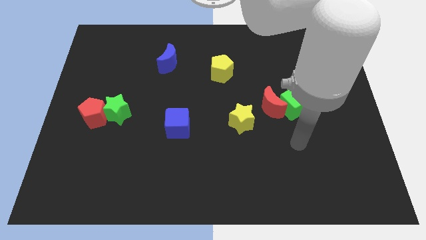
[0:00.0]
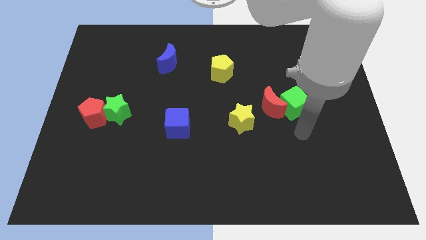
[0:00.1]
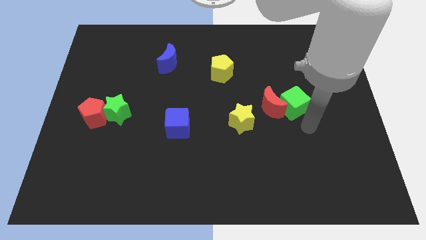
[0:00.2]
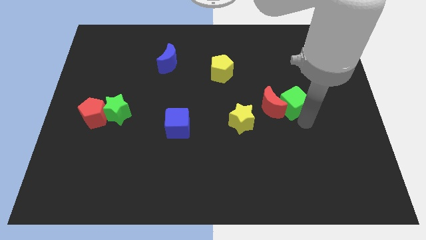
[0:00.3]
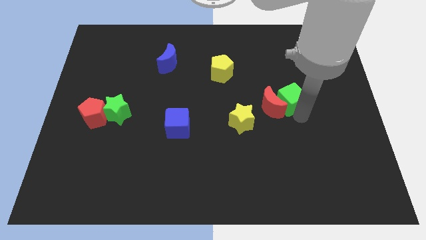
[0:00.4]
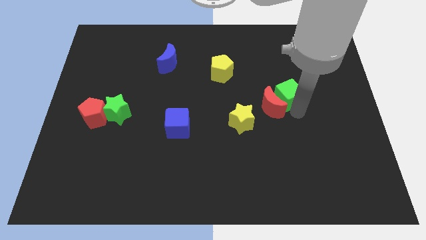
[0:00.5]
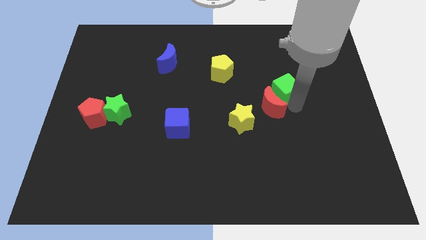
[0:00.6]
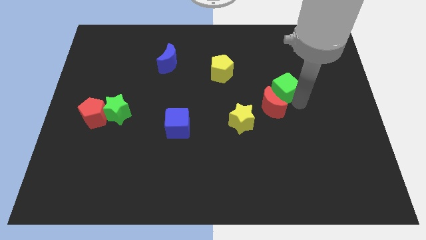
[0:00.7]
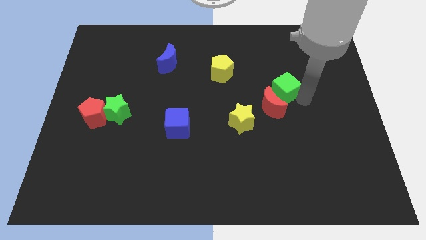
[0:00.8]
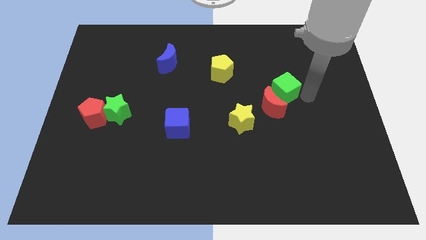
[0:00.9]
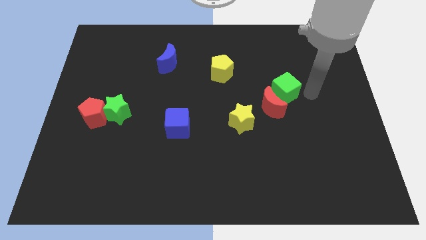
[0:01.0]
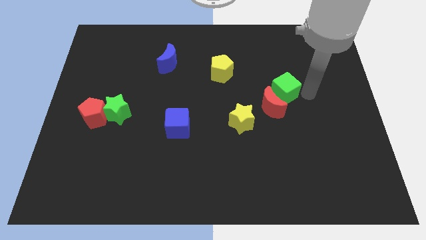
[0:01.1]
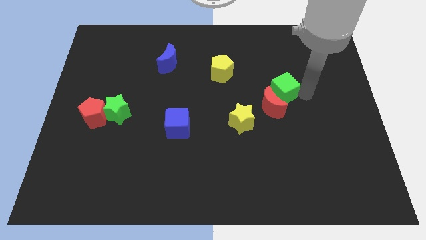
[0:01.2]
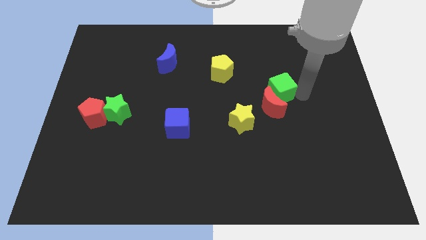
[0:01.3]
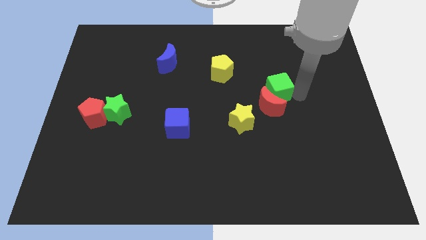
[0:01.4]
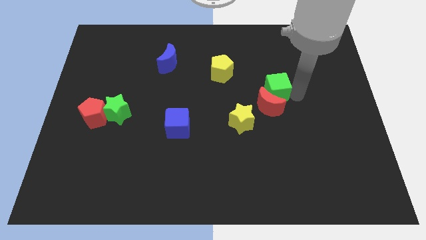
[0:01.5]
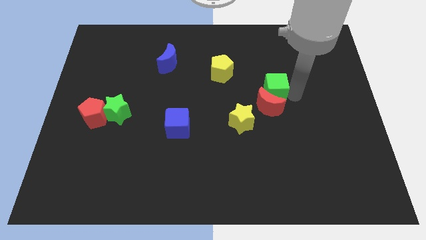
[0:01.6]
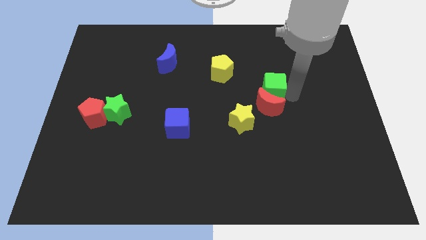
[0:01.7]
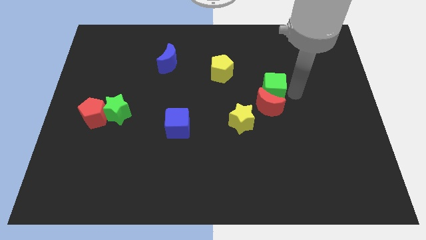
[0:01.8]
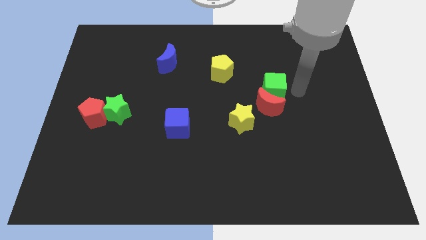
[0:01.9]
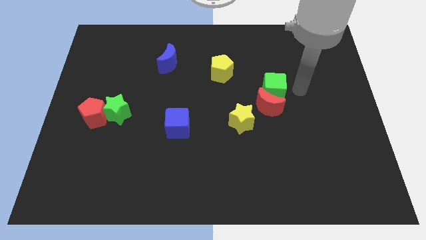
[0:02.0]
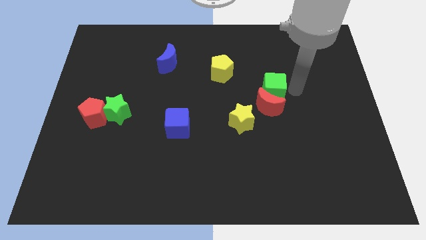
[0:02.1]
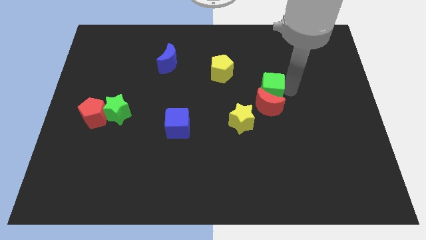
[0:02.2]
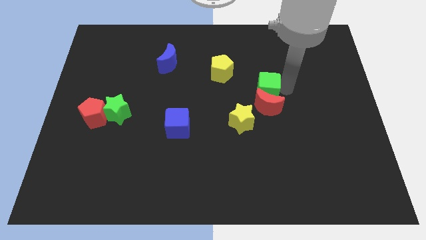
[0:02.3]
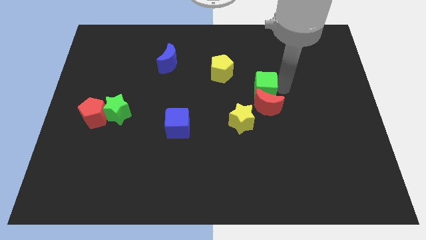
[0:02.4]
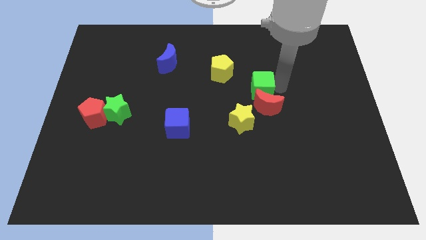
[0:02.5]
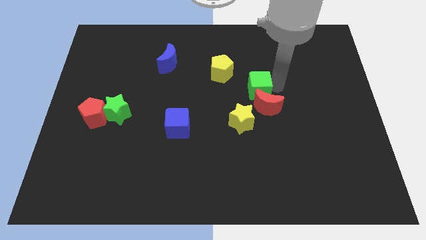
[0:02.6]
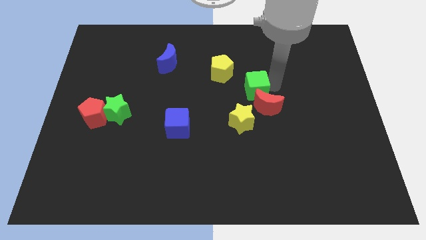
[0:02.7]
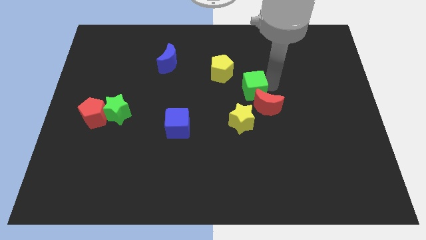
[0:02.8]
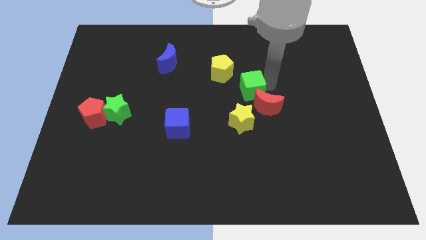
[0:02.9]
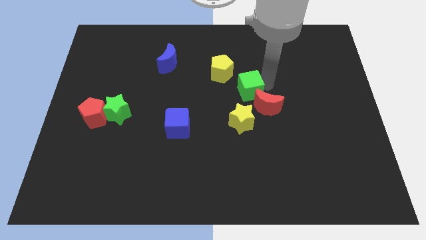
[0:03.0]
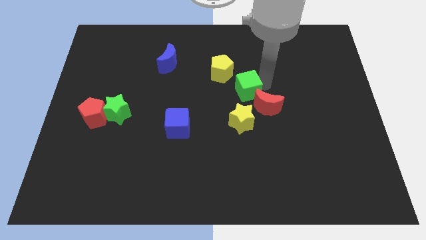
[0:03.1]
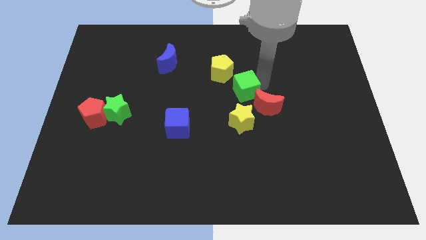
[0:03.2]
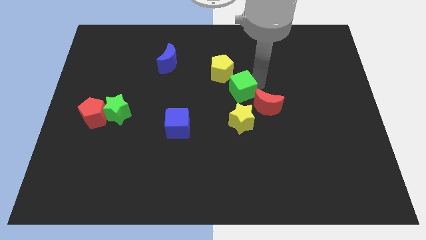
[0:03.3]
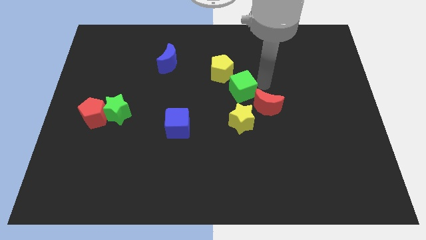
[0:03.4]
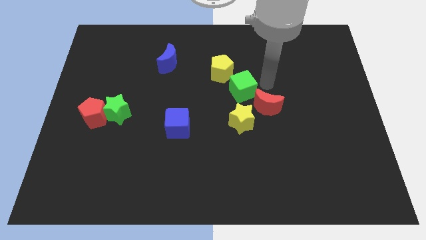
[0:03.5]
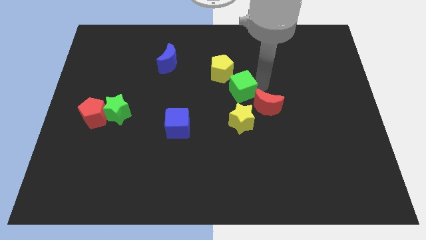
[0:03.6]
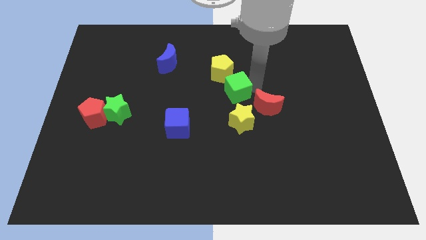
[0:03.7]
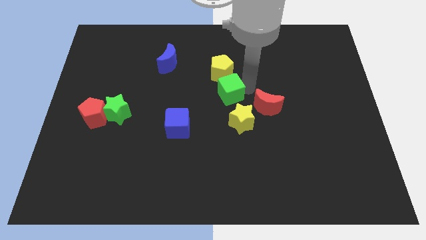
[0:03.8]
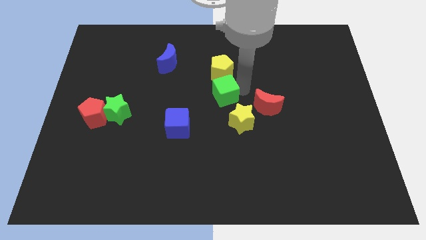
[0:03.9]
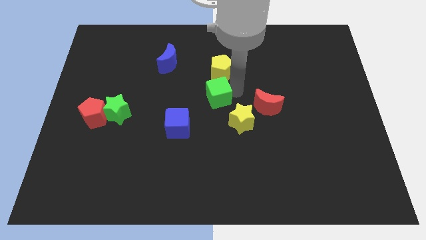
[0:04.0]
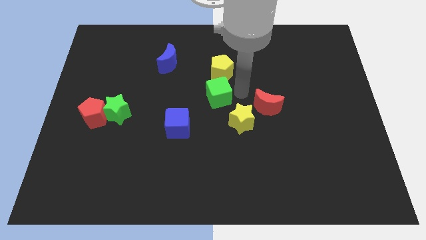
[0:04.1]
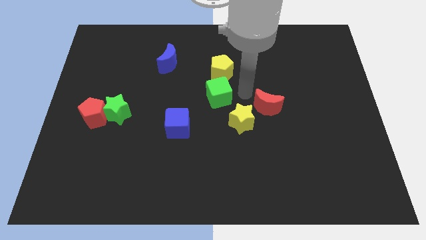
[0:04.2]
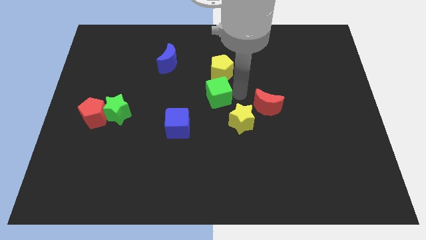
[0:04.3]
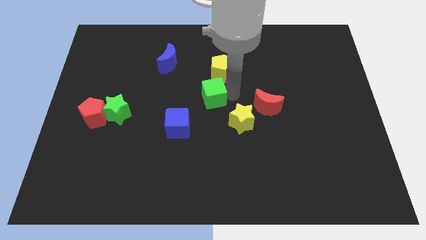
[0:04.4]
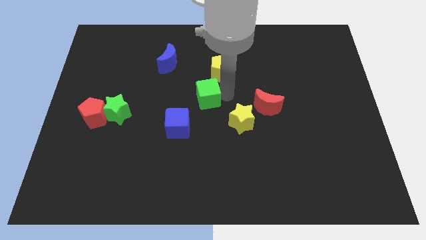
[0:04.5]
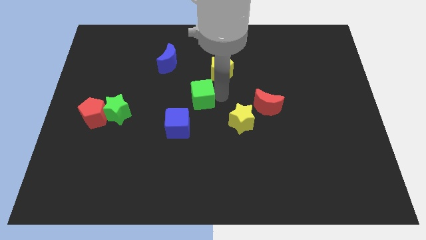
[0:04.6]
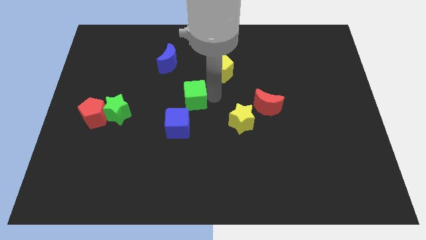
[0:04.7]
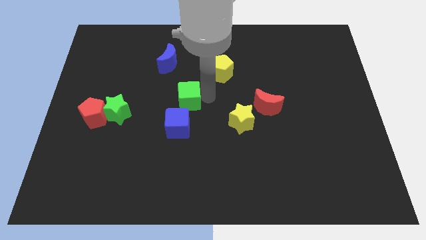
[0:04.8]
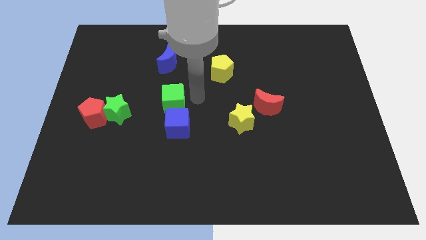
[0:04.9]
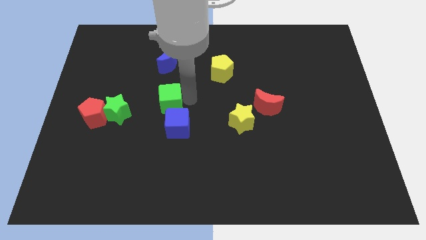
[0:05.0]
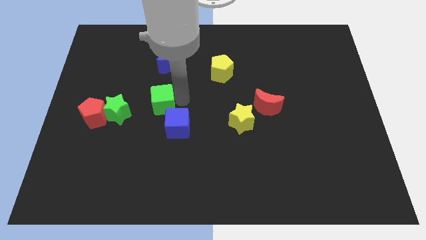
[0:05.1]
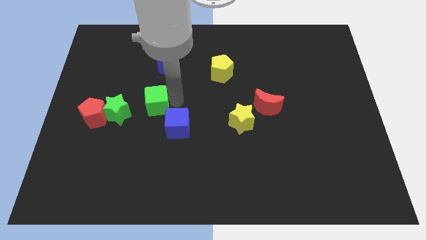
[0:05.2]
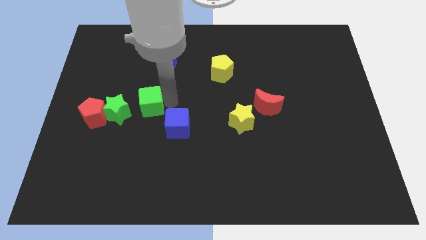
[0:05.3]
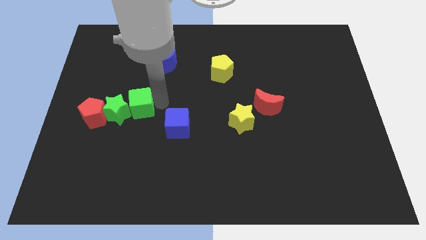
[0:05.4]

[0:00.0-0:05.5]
slide the green cube close to the green star

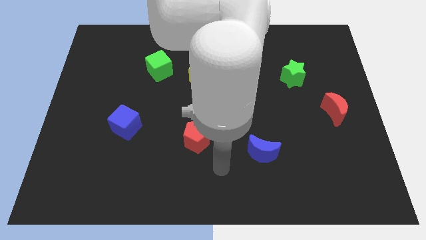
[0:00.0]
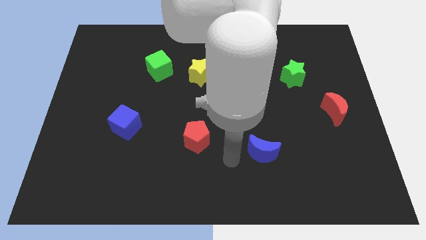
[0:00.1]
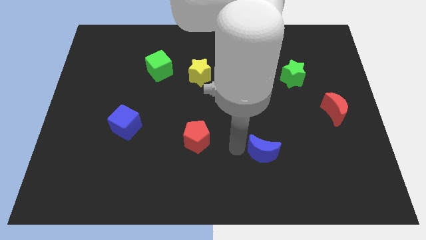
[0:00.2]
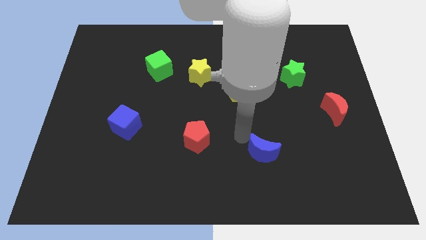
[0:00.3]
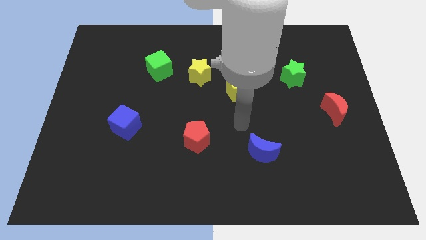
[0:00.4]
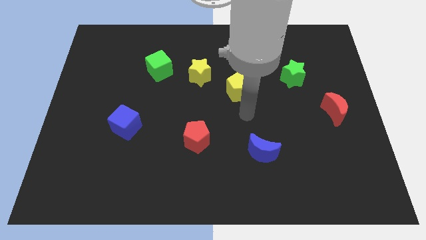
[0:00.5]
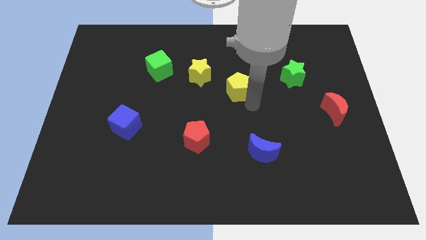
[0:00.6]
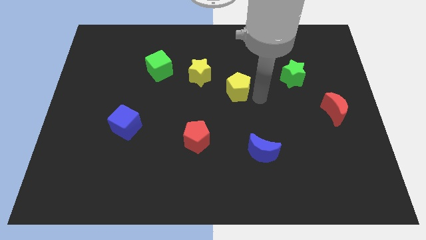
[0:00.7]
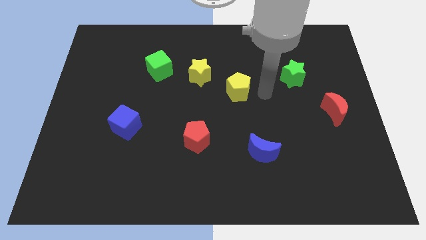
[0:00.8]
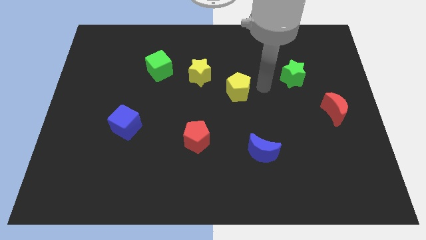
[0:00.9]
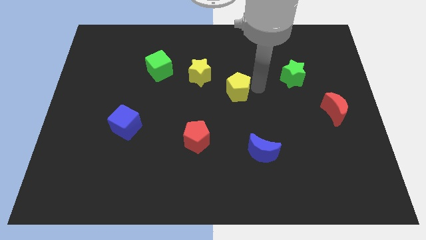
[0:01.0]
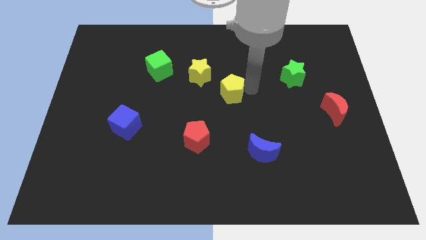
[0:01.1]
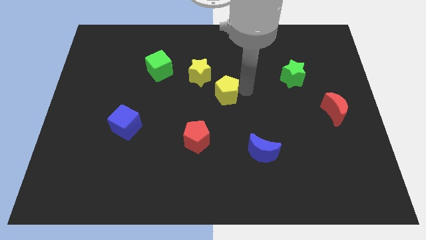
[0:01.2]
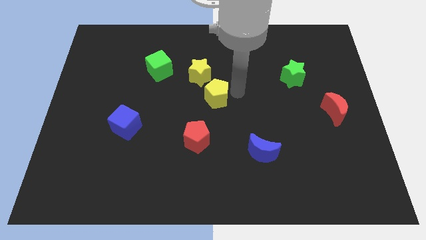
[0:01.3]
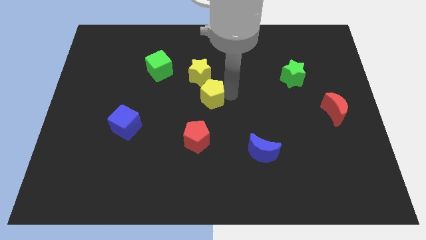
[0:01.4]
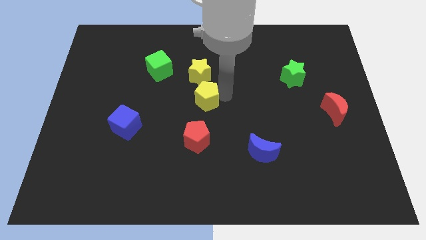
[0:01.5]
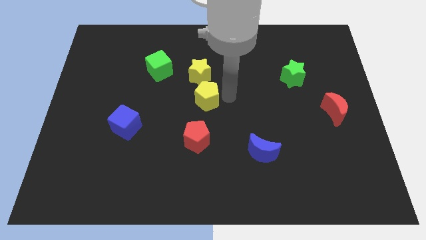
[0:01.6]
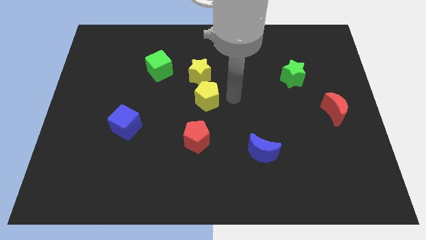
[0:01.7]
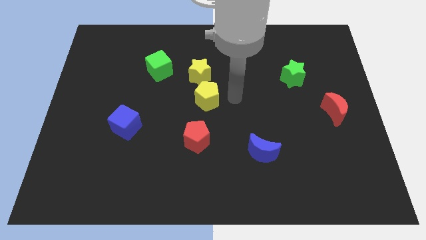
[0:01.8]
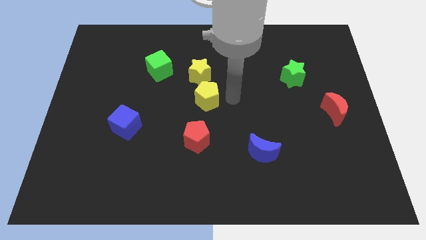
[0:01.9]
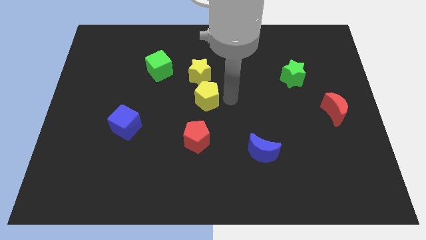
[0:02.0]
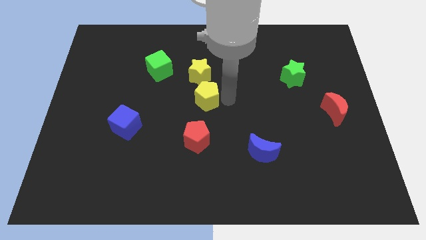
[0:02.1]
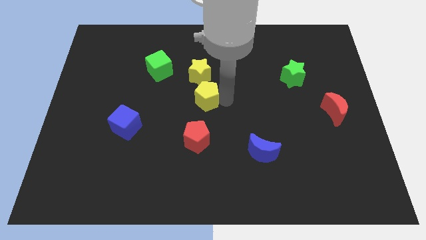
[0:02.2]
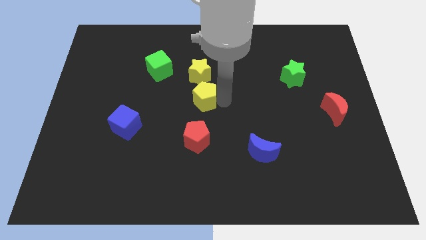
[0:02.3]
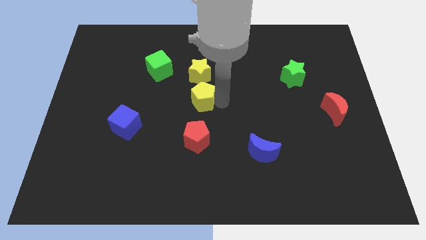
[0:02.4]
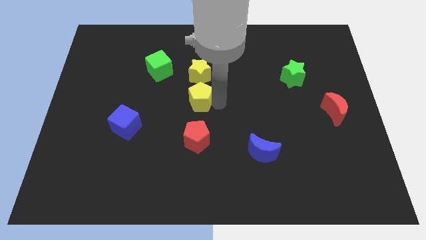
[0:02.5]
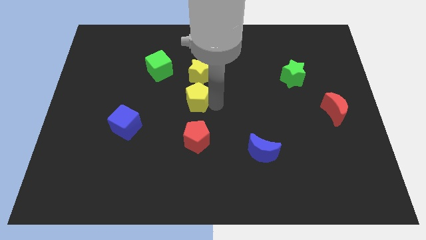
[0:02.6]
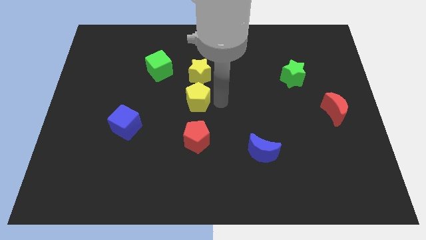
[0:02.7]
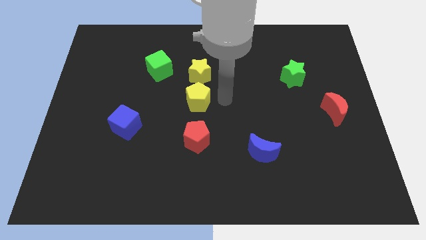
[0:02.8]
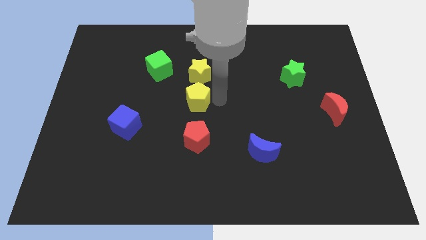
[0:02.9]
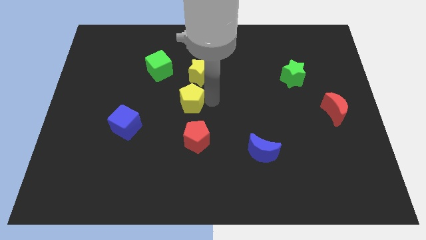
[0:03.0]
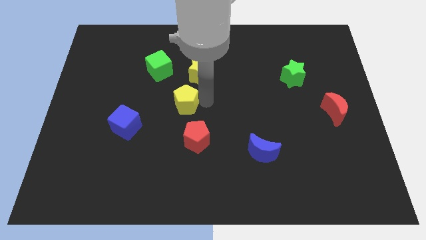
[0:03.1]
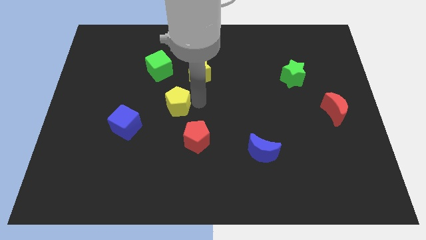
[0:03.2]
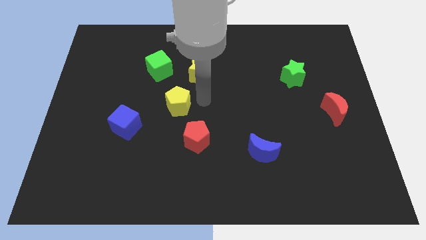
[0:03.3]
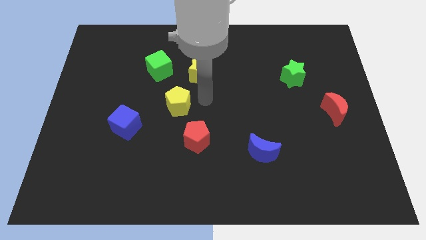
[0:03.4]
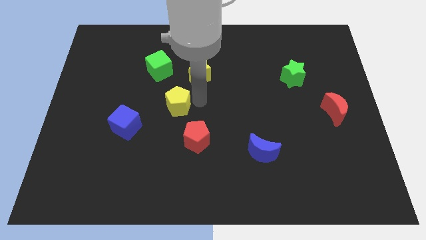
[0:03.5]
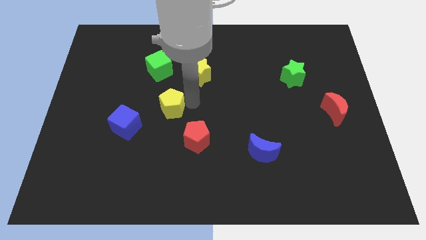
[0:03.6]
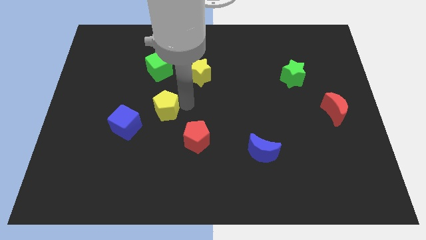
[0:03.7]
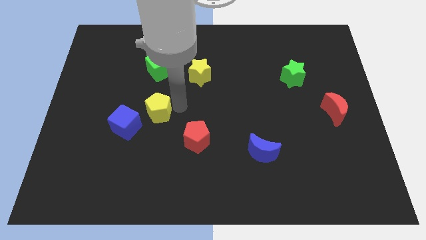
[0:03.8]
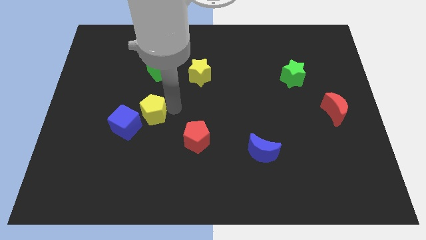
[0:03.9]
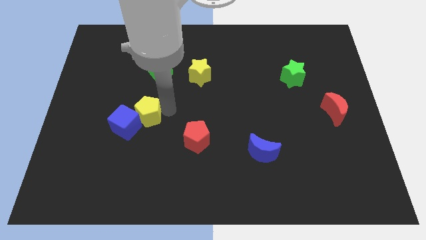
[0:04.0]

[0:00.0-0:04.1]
move the yellow pentagon to the blue cube
